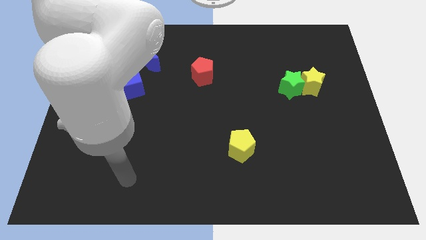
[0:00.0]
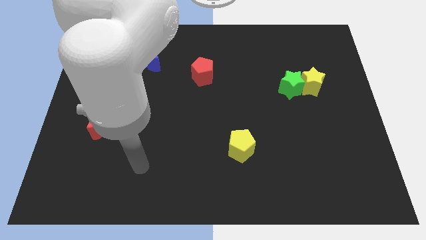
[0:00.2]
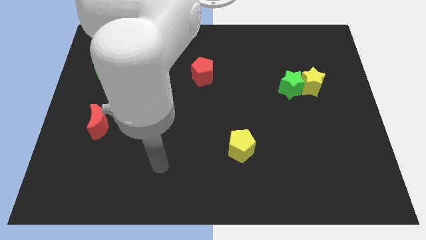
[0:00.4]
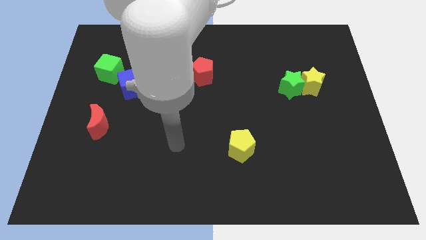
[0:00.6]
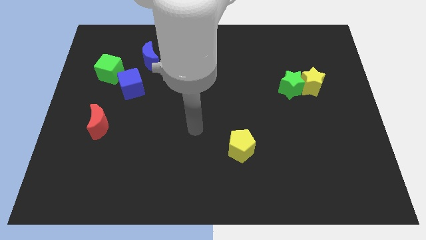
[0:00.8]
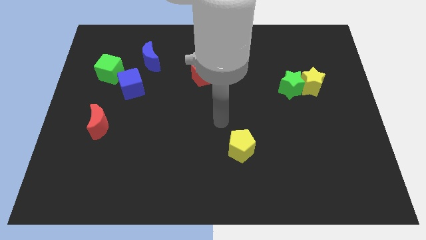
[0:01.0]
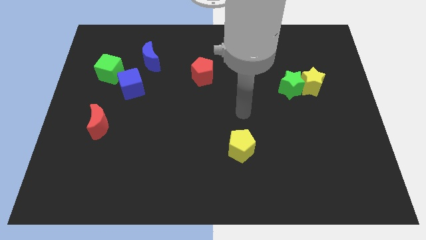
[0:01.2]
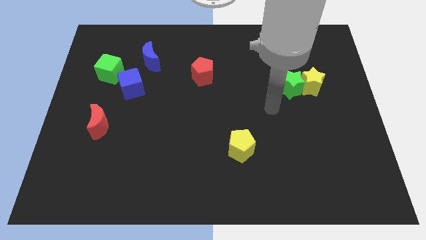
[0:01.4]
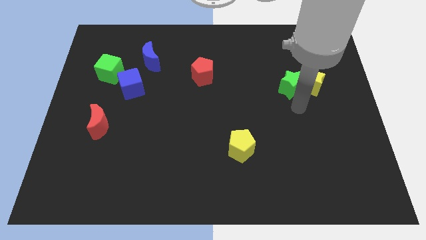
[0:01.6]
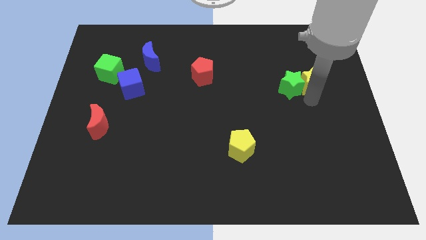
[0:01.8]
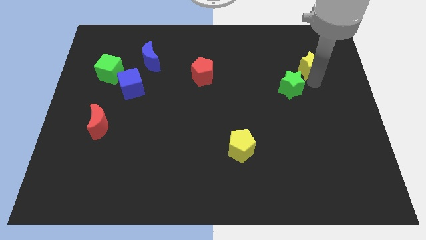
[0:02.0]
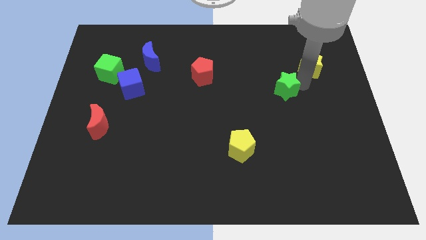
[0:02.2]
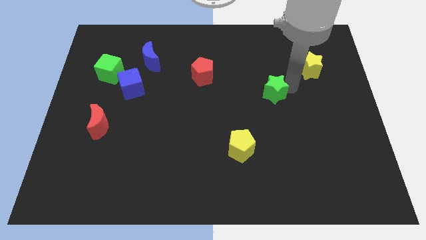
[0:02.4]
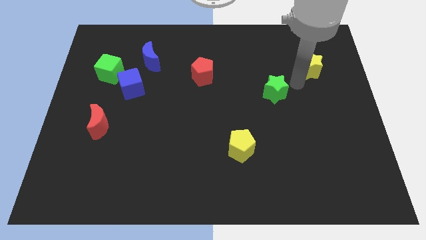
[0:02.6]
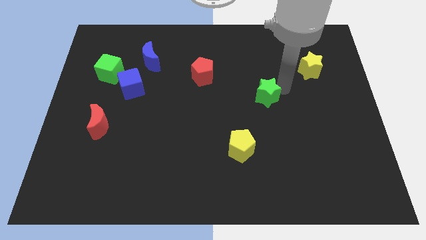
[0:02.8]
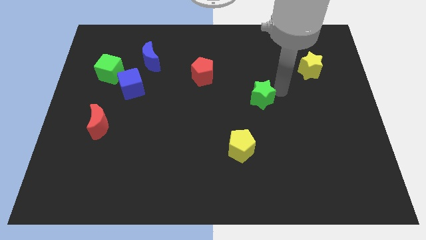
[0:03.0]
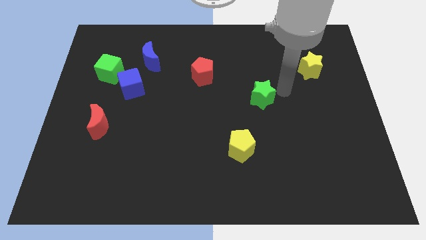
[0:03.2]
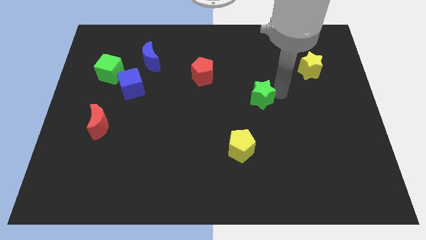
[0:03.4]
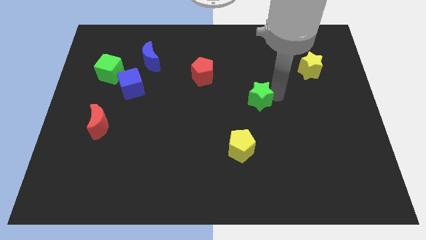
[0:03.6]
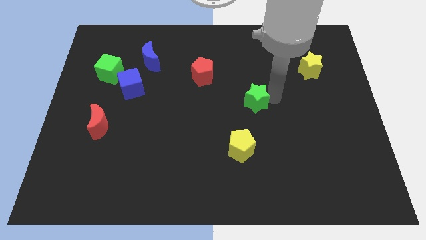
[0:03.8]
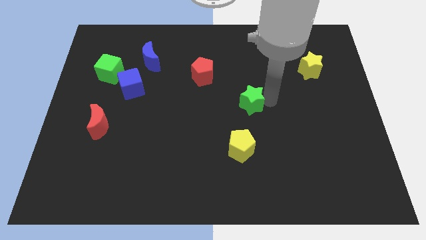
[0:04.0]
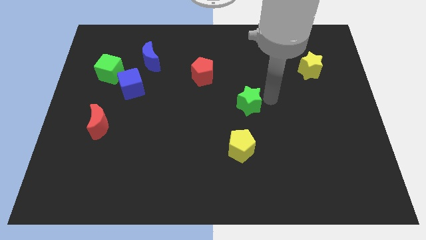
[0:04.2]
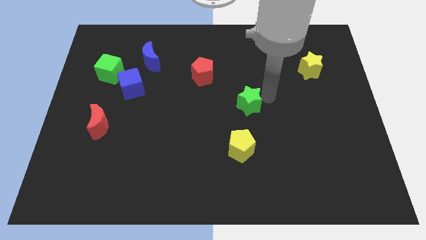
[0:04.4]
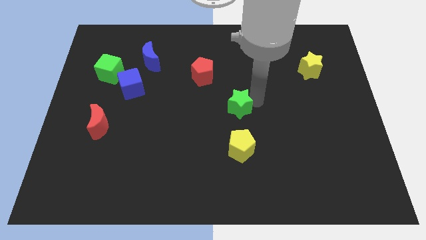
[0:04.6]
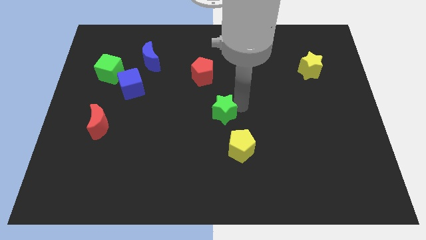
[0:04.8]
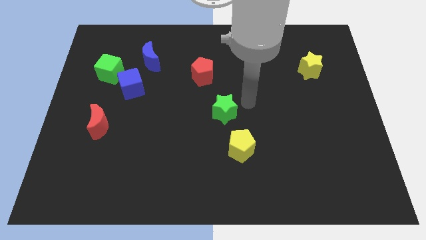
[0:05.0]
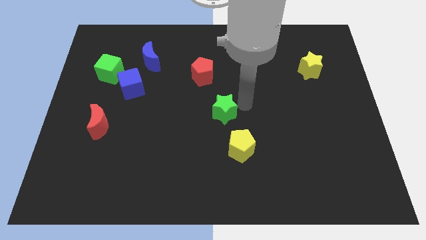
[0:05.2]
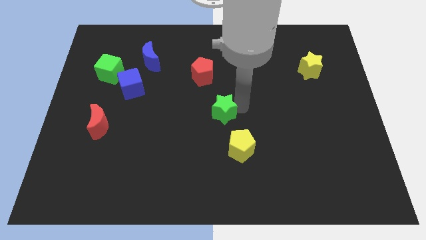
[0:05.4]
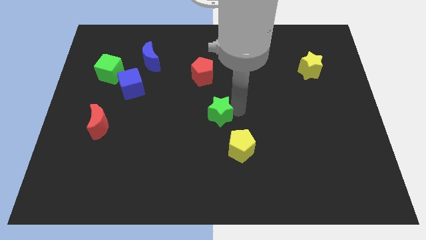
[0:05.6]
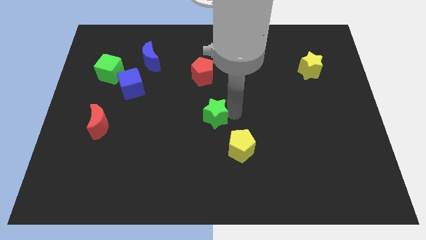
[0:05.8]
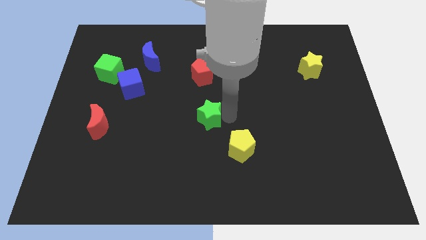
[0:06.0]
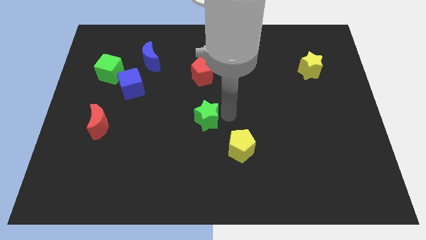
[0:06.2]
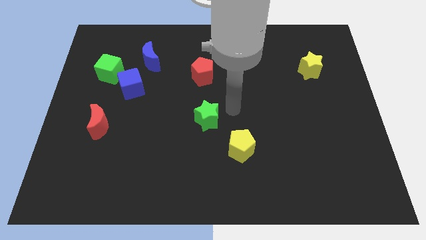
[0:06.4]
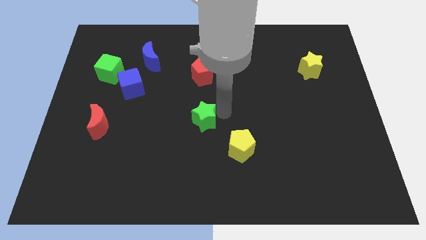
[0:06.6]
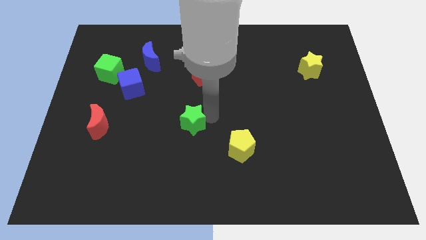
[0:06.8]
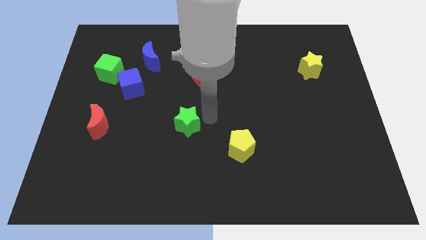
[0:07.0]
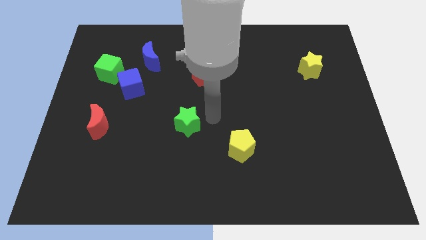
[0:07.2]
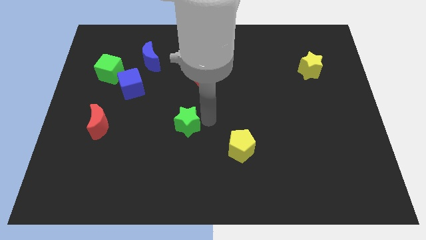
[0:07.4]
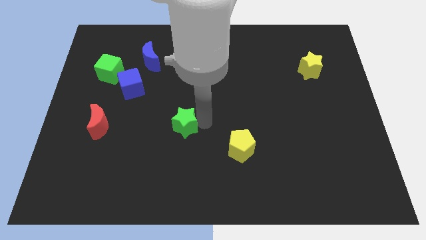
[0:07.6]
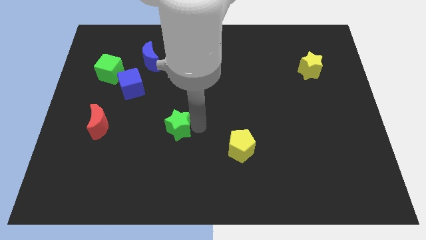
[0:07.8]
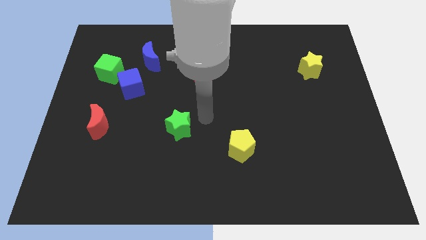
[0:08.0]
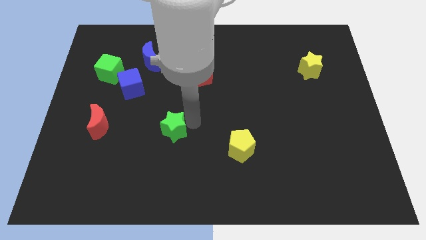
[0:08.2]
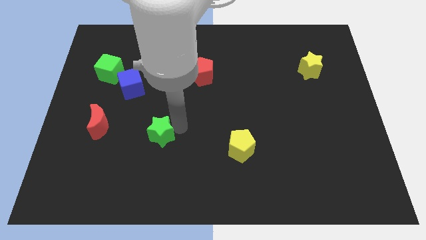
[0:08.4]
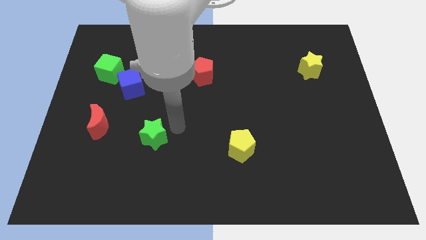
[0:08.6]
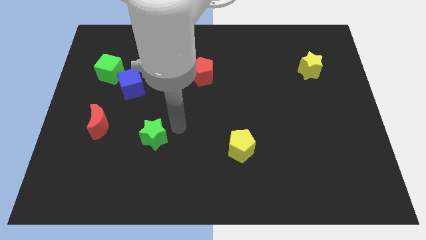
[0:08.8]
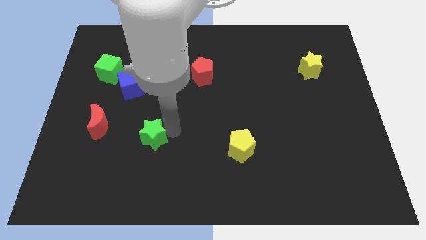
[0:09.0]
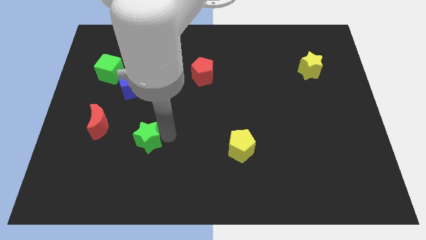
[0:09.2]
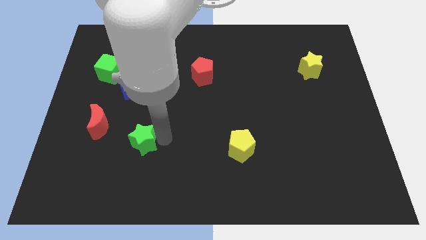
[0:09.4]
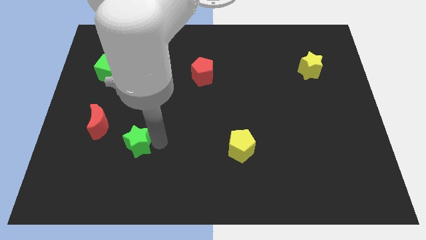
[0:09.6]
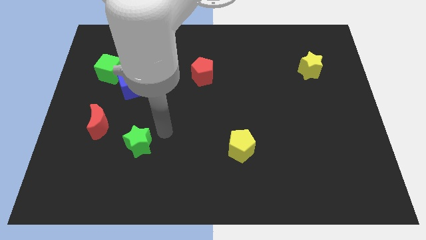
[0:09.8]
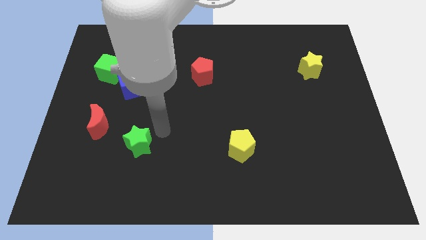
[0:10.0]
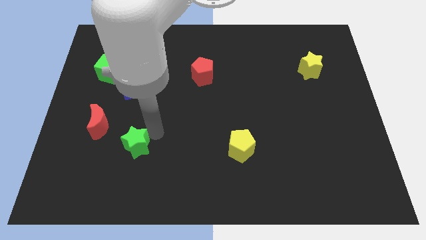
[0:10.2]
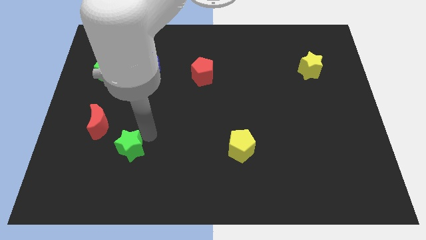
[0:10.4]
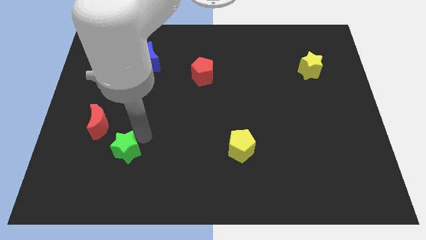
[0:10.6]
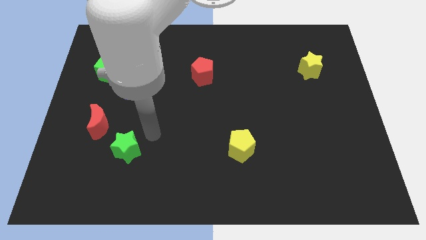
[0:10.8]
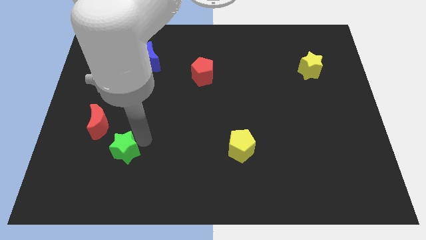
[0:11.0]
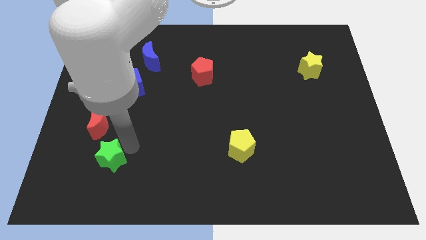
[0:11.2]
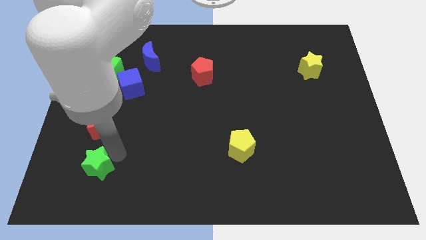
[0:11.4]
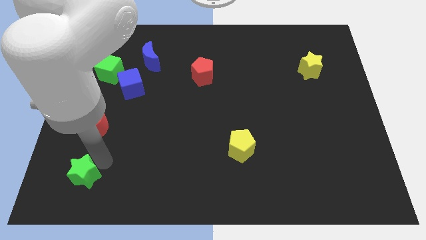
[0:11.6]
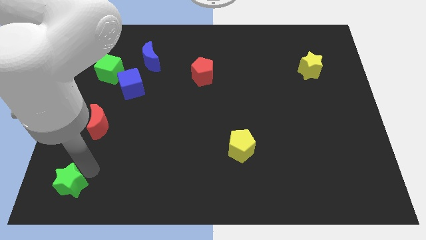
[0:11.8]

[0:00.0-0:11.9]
slide the green star to the bottom left
